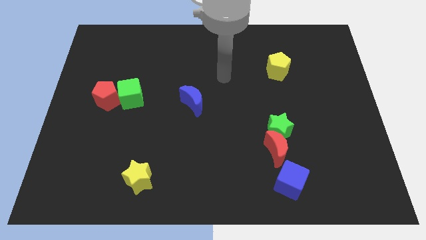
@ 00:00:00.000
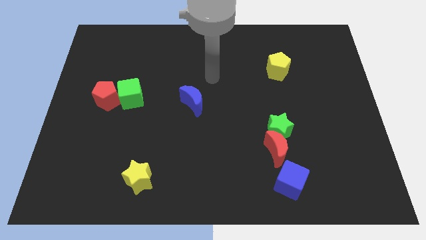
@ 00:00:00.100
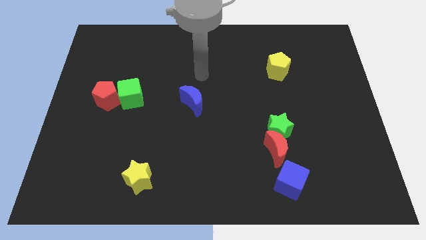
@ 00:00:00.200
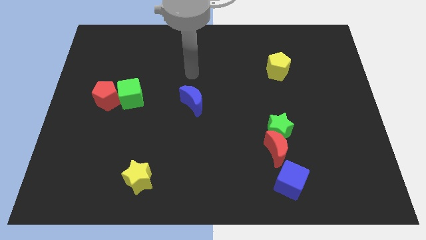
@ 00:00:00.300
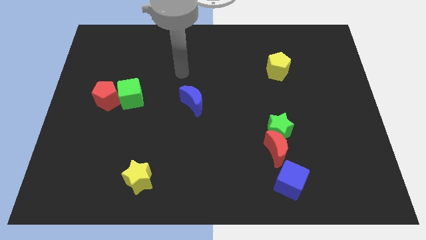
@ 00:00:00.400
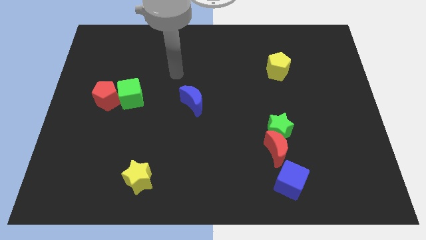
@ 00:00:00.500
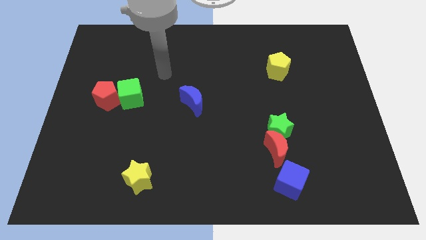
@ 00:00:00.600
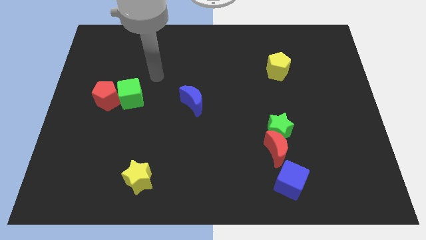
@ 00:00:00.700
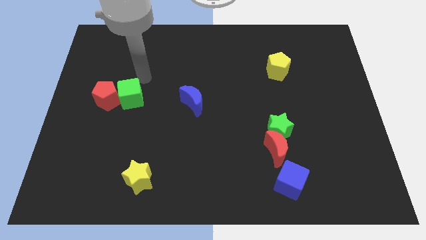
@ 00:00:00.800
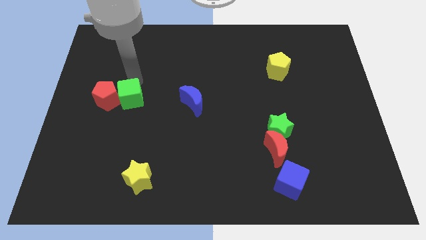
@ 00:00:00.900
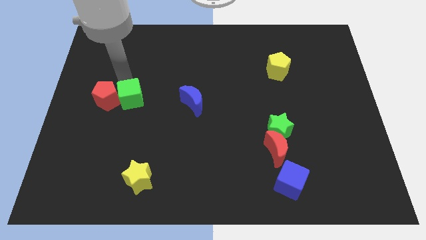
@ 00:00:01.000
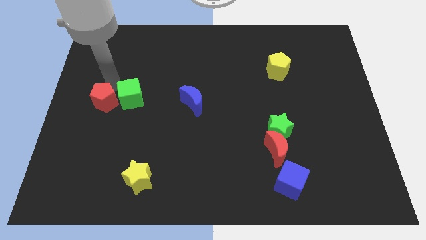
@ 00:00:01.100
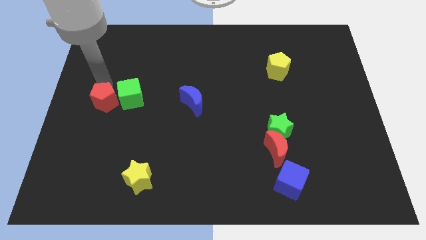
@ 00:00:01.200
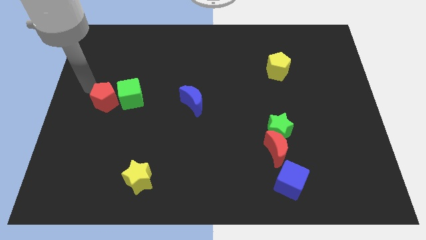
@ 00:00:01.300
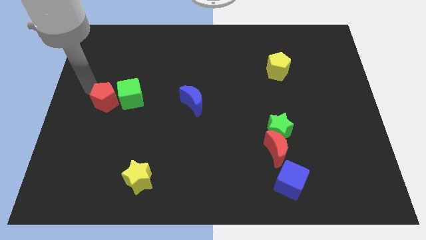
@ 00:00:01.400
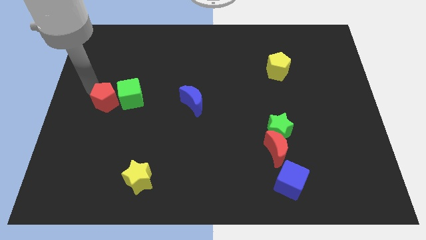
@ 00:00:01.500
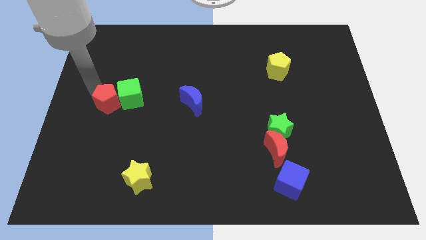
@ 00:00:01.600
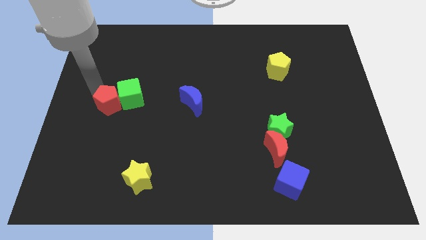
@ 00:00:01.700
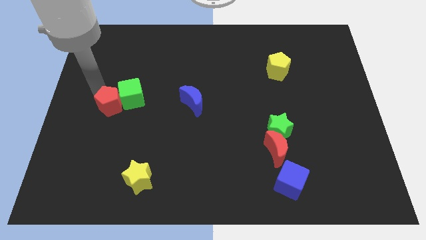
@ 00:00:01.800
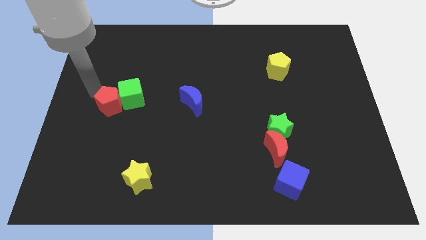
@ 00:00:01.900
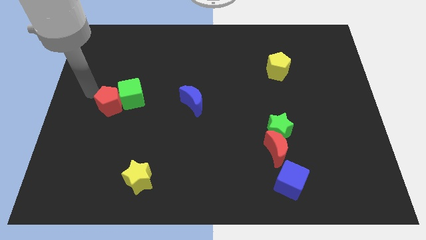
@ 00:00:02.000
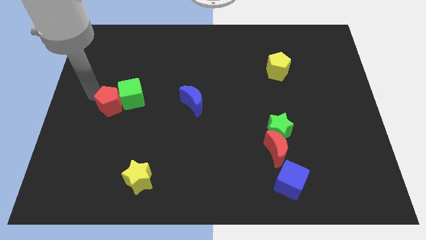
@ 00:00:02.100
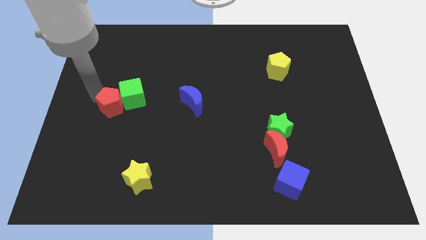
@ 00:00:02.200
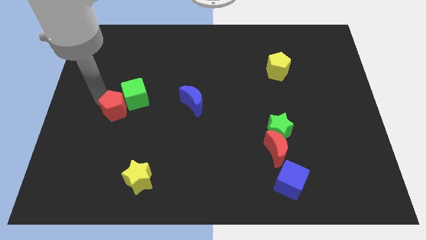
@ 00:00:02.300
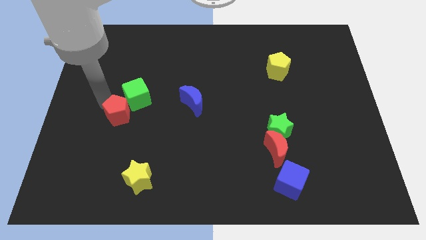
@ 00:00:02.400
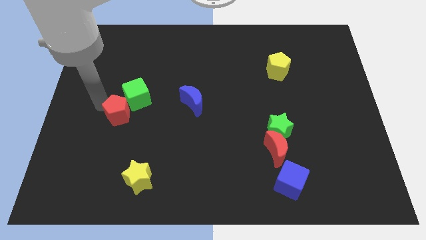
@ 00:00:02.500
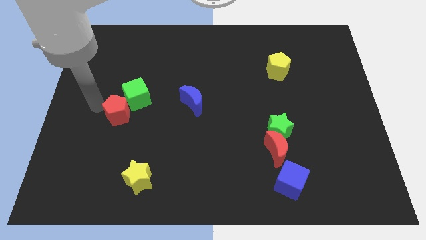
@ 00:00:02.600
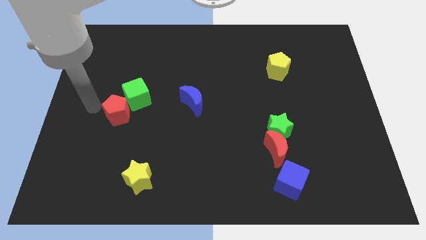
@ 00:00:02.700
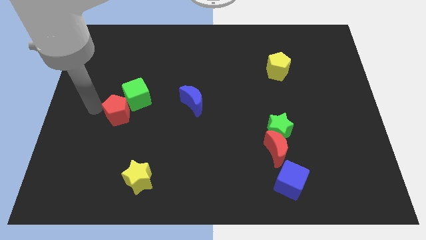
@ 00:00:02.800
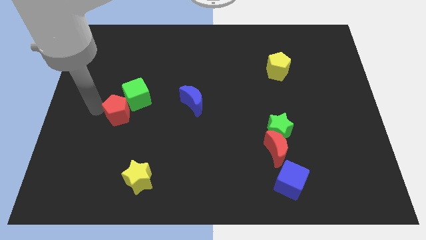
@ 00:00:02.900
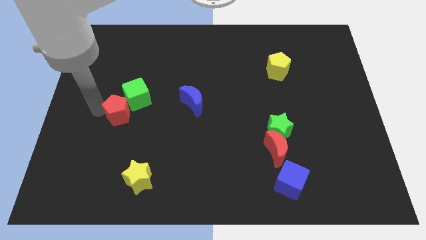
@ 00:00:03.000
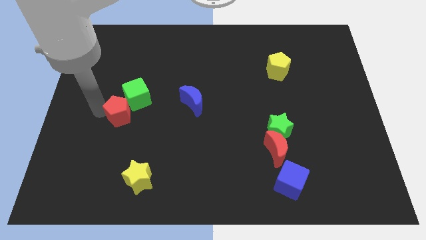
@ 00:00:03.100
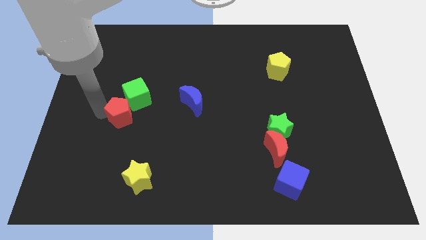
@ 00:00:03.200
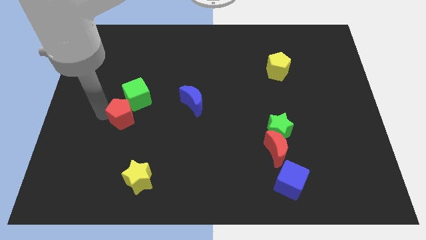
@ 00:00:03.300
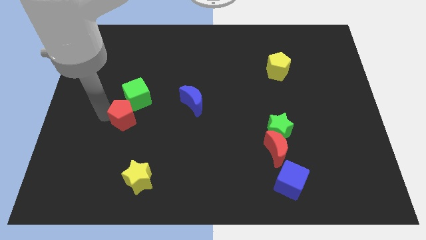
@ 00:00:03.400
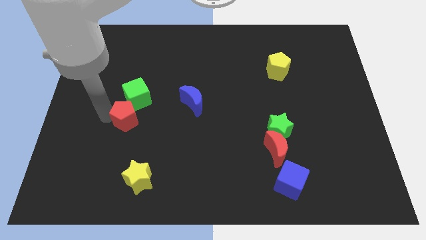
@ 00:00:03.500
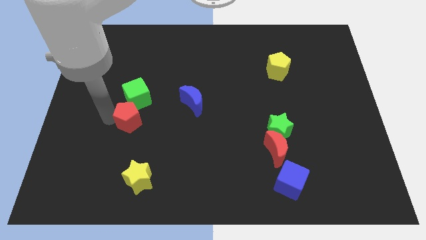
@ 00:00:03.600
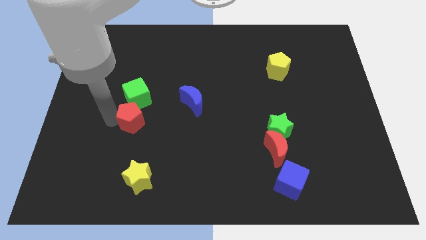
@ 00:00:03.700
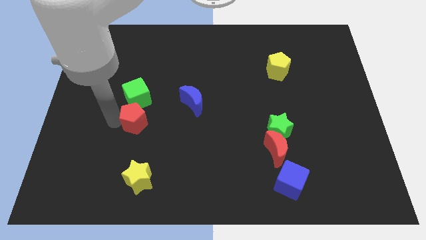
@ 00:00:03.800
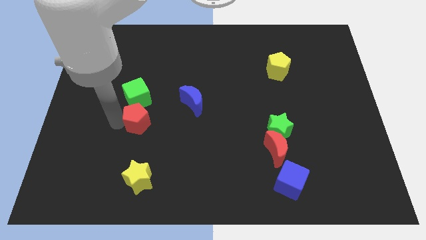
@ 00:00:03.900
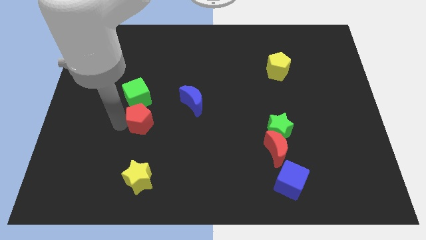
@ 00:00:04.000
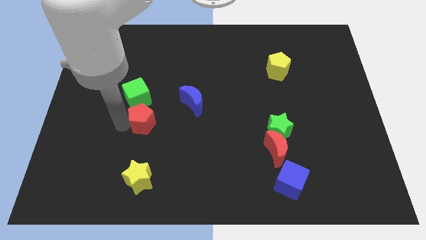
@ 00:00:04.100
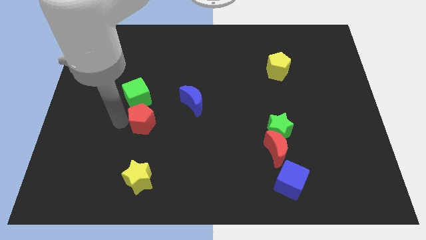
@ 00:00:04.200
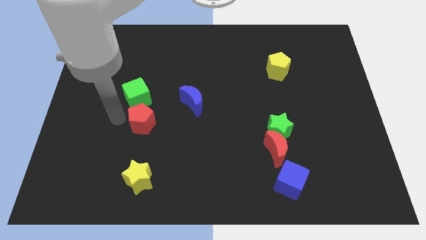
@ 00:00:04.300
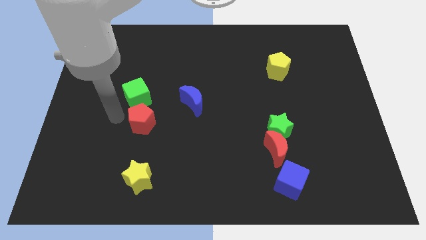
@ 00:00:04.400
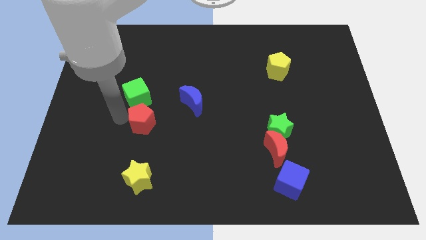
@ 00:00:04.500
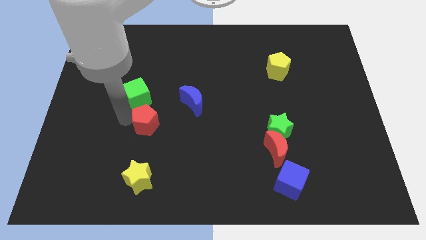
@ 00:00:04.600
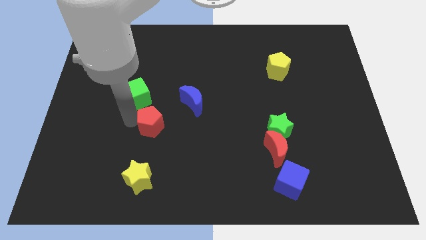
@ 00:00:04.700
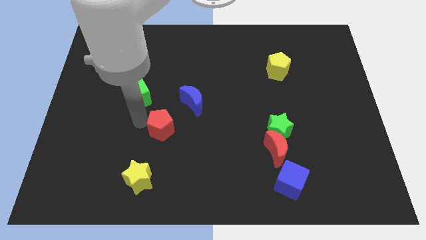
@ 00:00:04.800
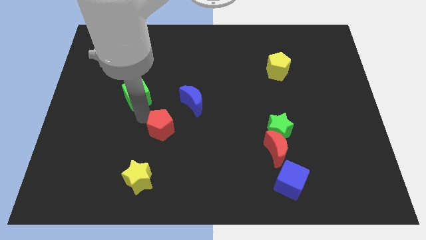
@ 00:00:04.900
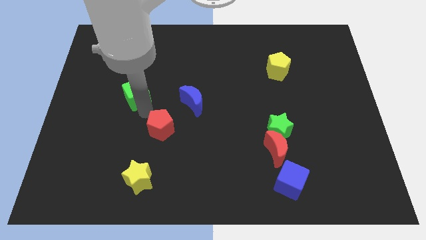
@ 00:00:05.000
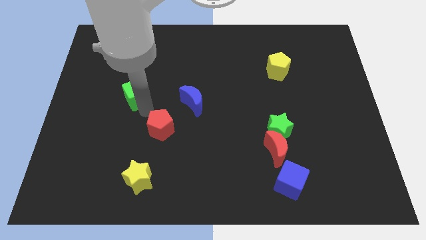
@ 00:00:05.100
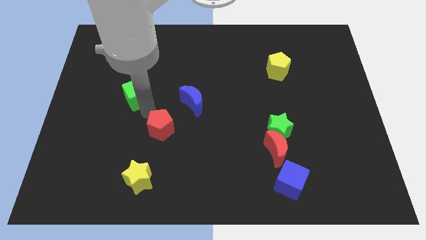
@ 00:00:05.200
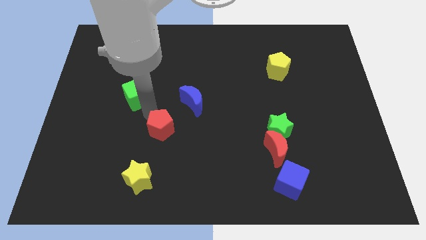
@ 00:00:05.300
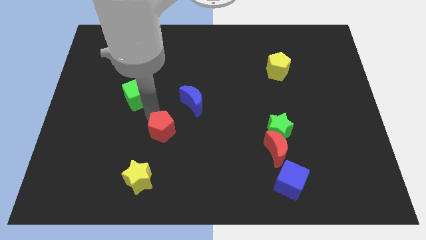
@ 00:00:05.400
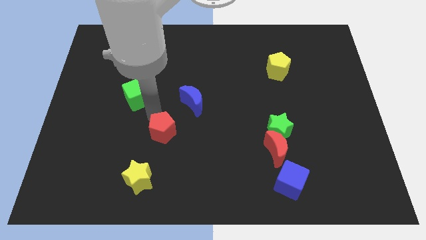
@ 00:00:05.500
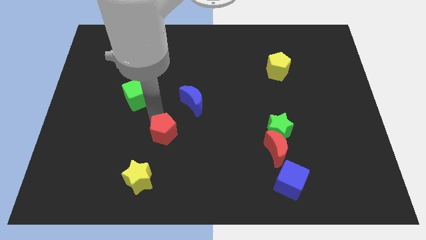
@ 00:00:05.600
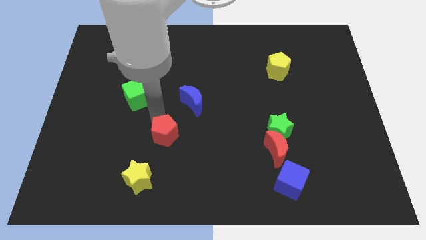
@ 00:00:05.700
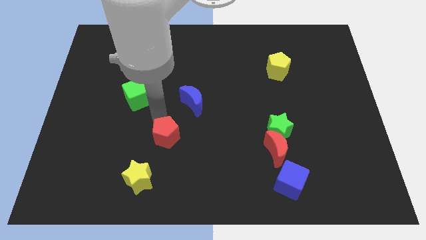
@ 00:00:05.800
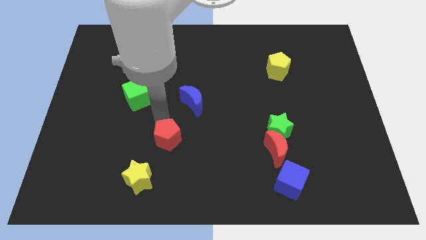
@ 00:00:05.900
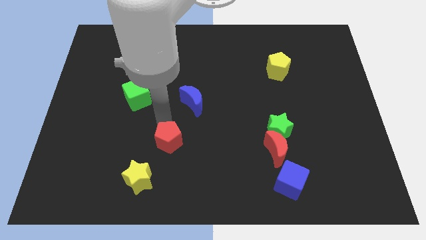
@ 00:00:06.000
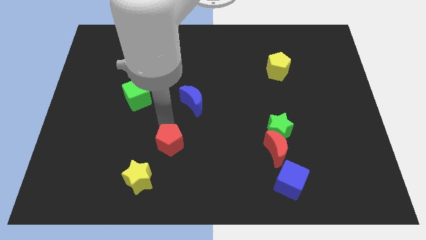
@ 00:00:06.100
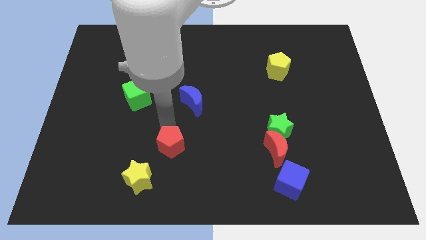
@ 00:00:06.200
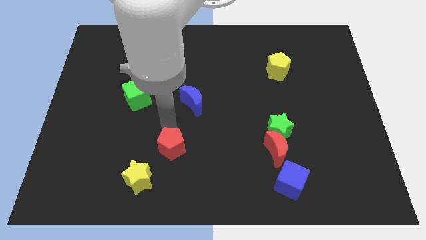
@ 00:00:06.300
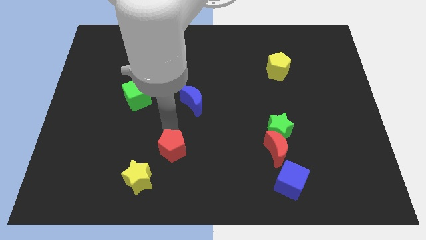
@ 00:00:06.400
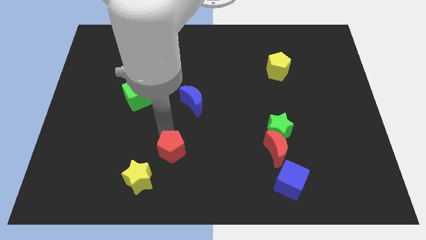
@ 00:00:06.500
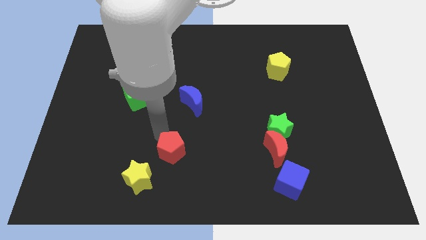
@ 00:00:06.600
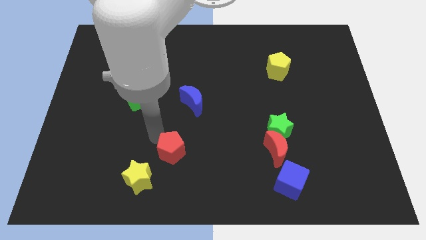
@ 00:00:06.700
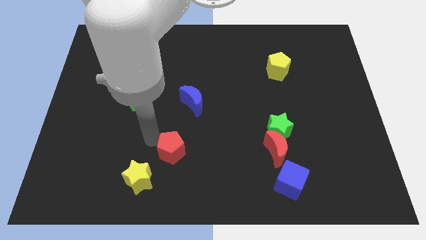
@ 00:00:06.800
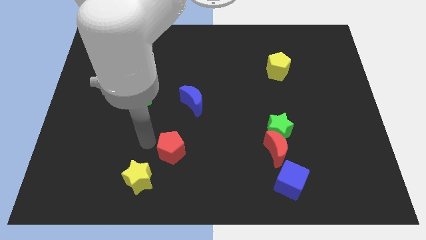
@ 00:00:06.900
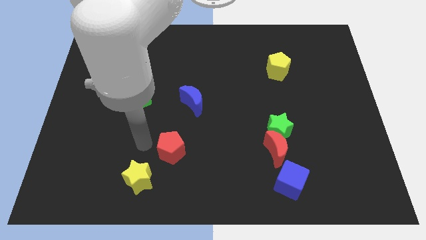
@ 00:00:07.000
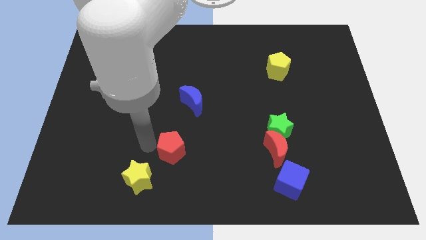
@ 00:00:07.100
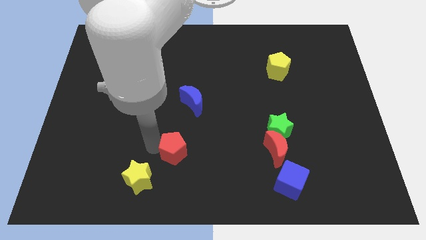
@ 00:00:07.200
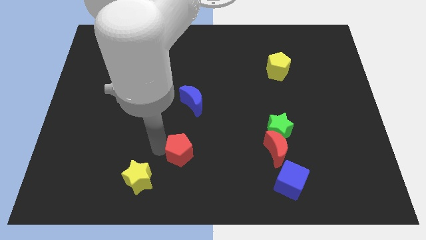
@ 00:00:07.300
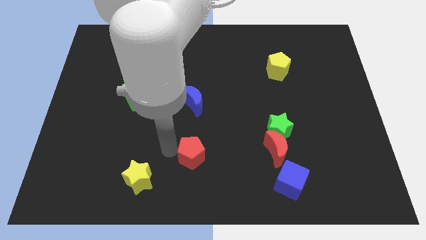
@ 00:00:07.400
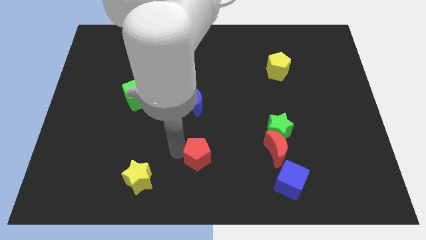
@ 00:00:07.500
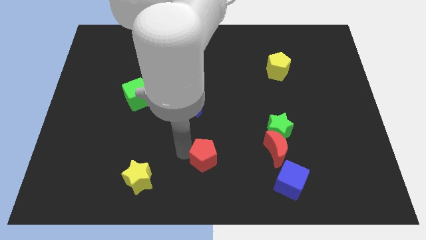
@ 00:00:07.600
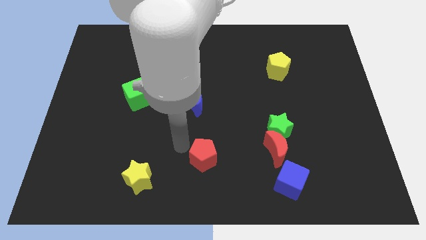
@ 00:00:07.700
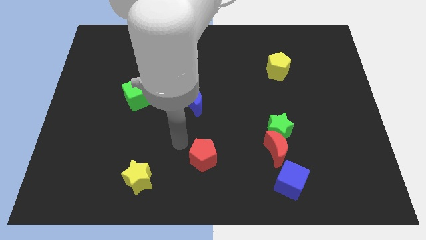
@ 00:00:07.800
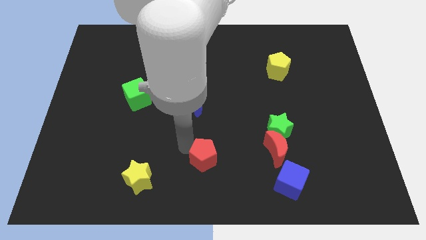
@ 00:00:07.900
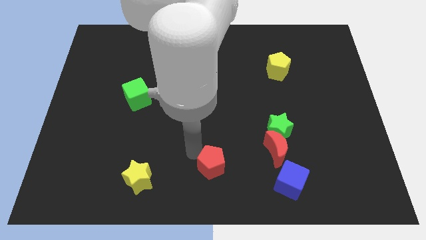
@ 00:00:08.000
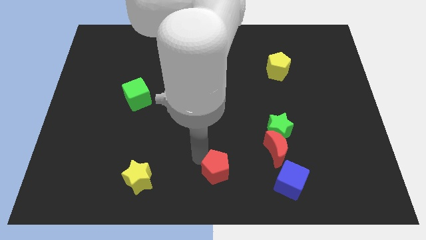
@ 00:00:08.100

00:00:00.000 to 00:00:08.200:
move the red pentagon just left of the blue cube
